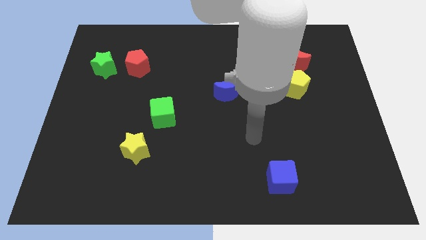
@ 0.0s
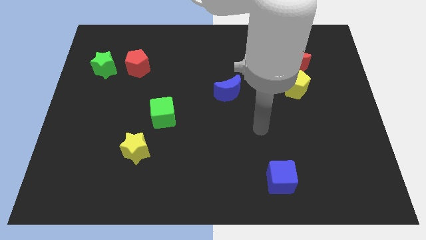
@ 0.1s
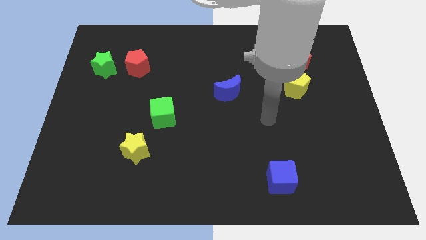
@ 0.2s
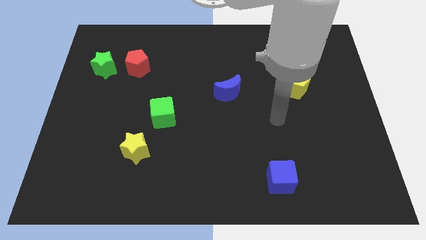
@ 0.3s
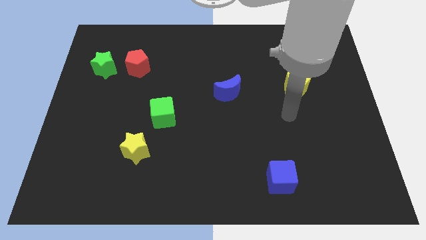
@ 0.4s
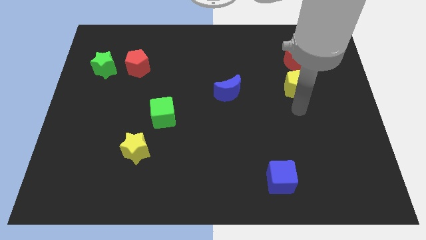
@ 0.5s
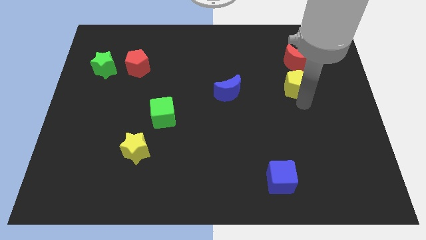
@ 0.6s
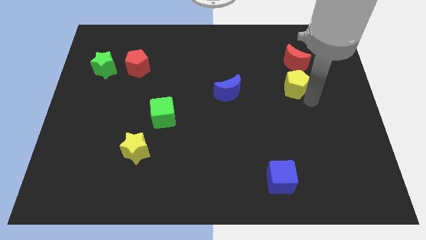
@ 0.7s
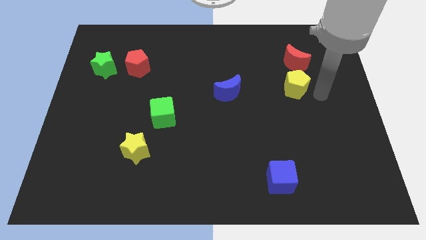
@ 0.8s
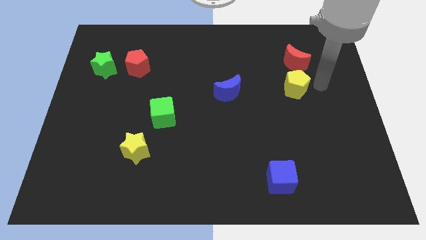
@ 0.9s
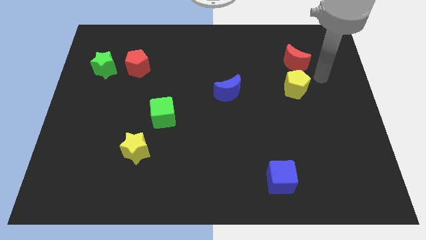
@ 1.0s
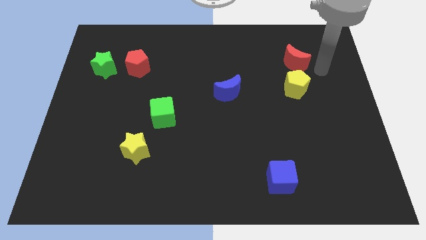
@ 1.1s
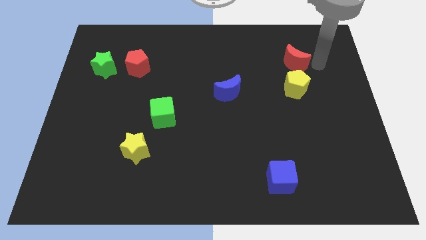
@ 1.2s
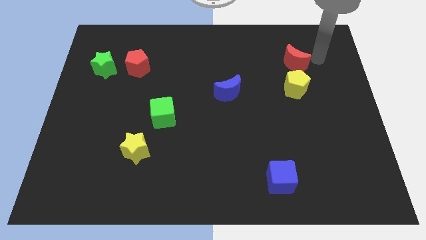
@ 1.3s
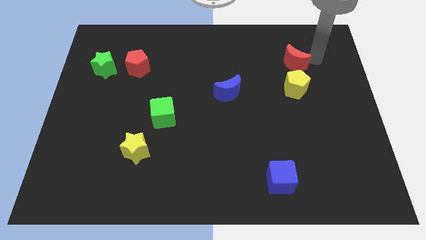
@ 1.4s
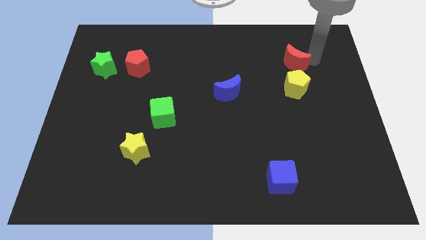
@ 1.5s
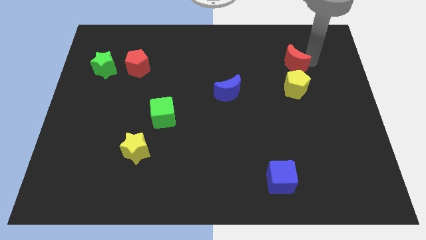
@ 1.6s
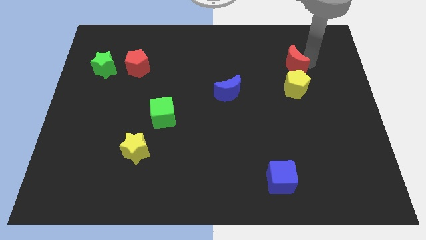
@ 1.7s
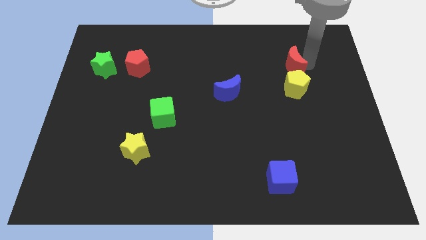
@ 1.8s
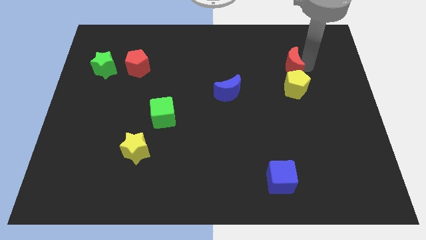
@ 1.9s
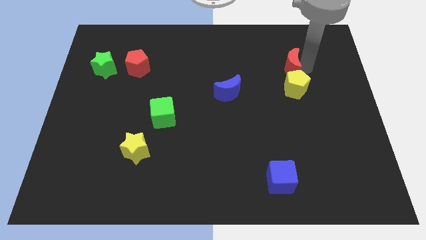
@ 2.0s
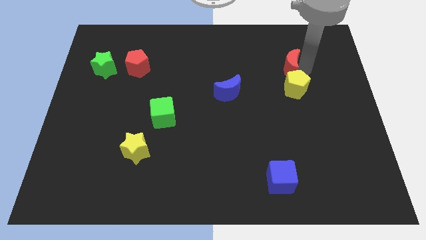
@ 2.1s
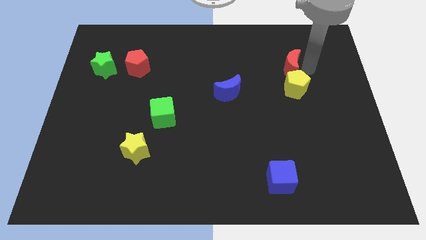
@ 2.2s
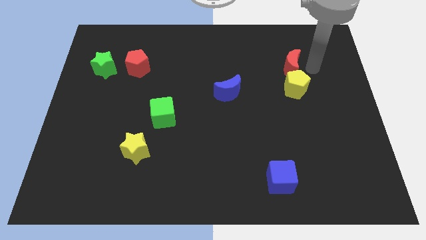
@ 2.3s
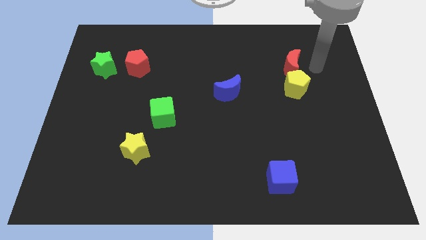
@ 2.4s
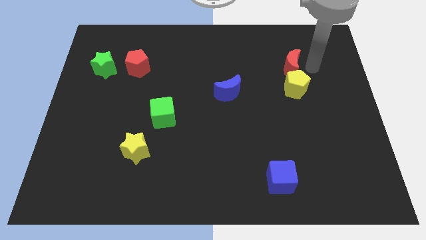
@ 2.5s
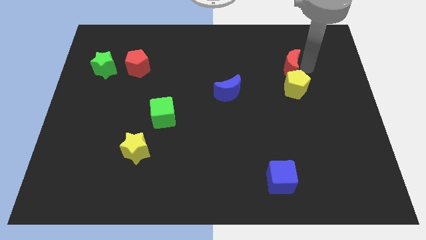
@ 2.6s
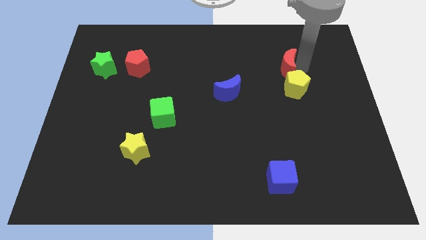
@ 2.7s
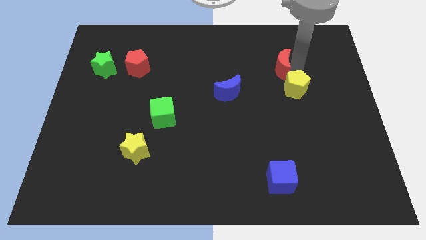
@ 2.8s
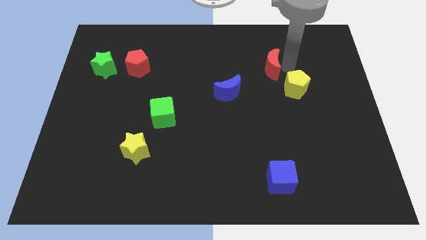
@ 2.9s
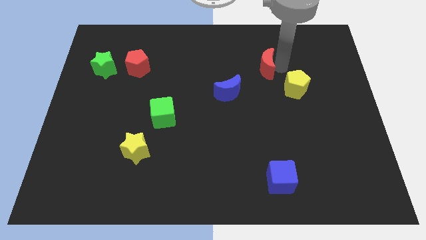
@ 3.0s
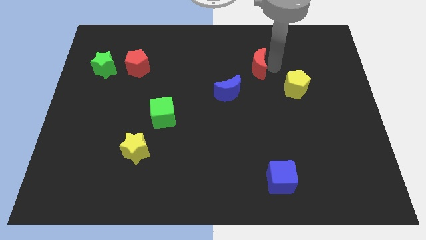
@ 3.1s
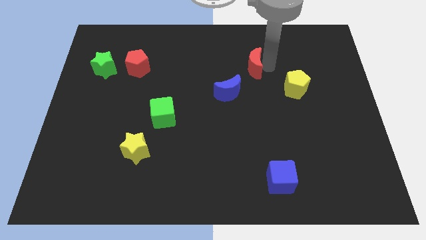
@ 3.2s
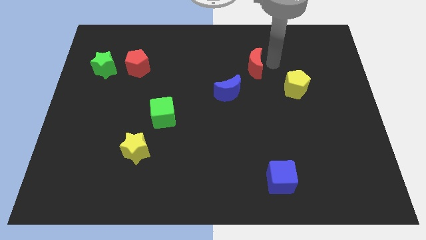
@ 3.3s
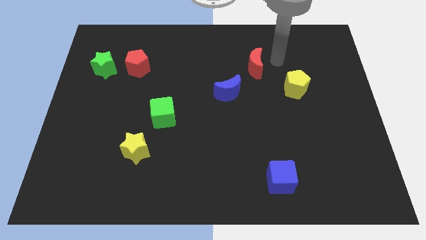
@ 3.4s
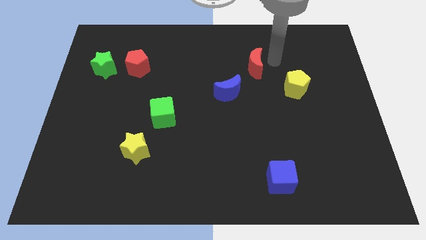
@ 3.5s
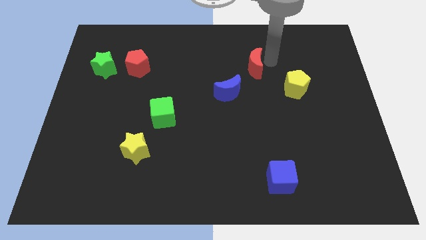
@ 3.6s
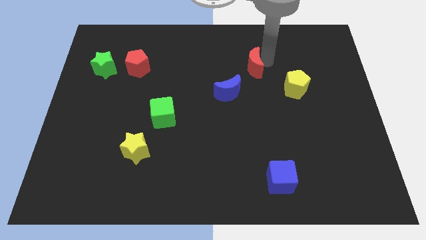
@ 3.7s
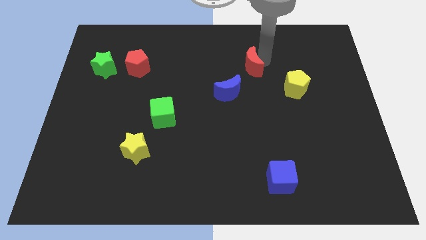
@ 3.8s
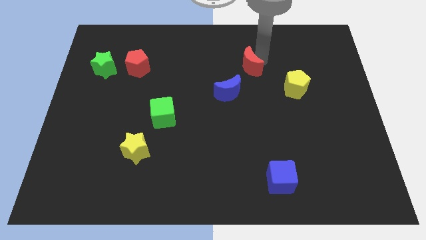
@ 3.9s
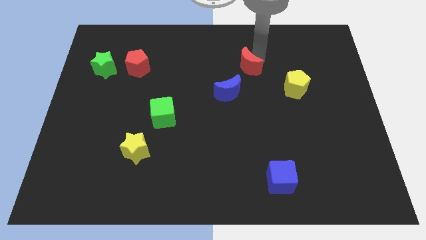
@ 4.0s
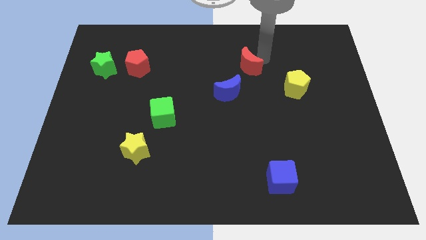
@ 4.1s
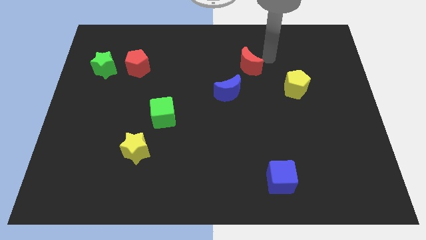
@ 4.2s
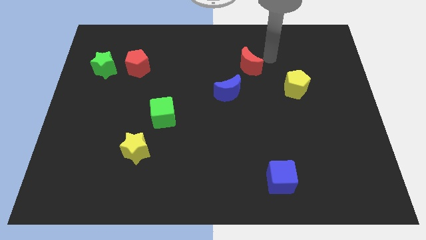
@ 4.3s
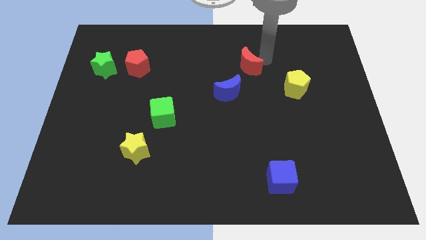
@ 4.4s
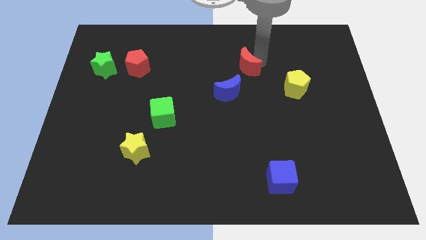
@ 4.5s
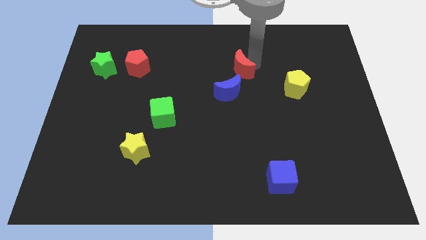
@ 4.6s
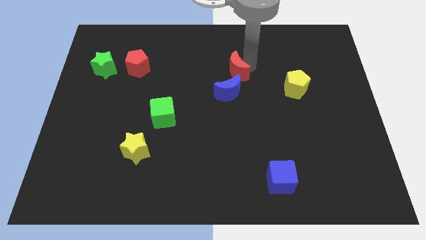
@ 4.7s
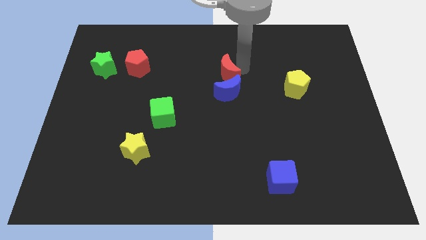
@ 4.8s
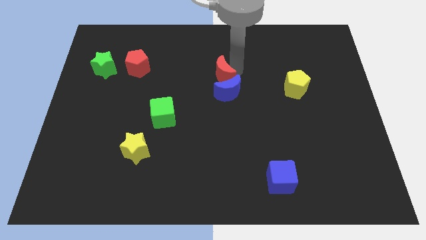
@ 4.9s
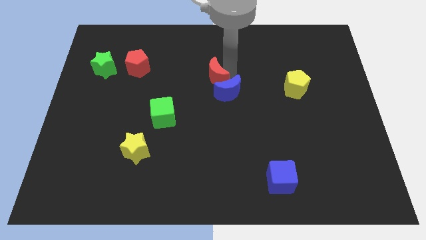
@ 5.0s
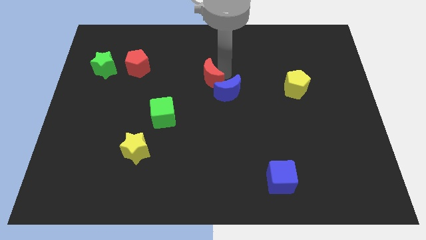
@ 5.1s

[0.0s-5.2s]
push the red moon to the left of the blue moon

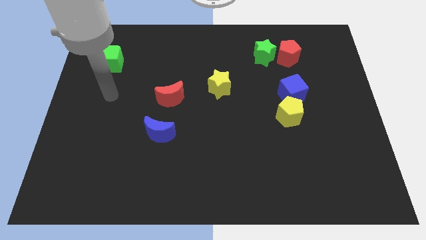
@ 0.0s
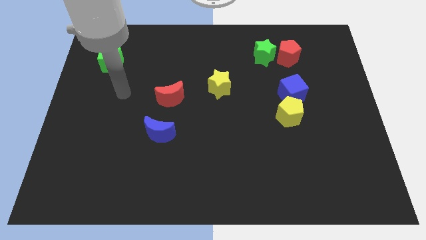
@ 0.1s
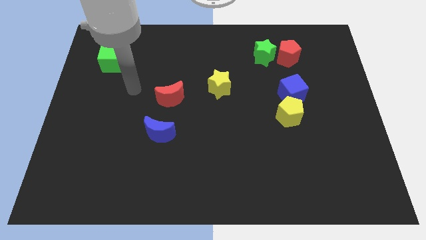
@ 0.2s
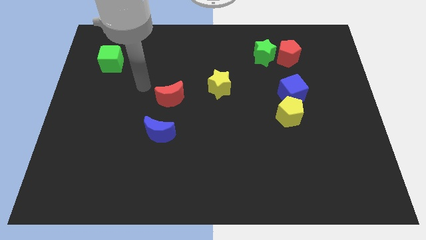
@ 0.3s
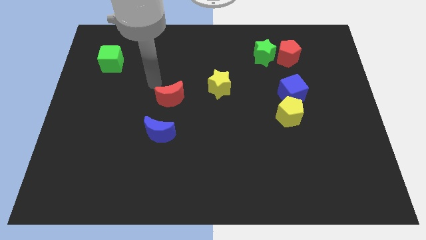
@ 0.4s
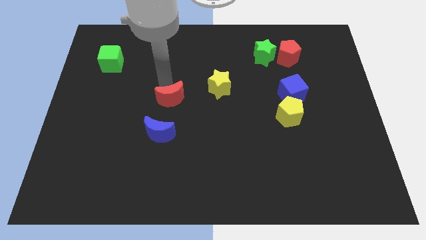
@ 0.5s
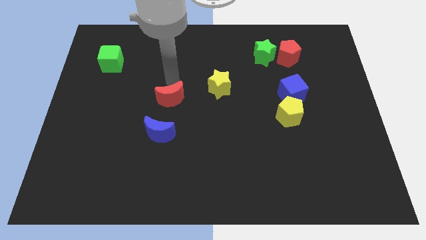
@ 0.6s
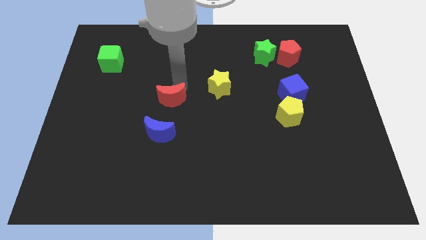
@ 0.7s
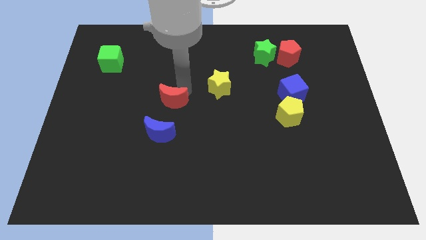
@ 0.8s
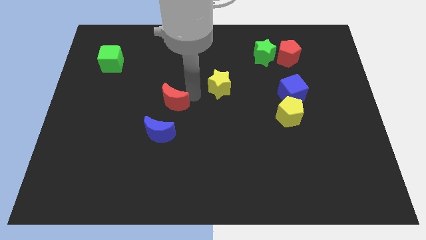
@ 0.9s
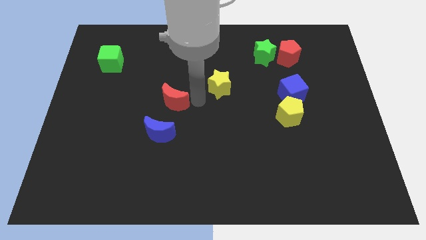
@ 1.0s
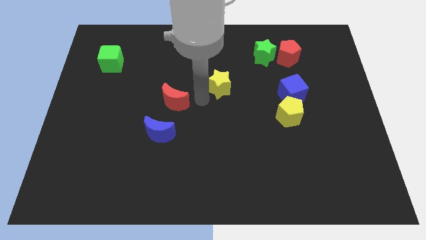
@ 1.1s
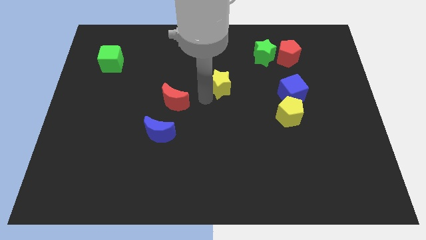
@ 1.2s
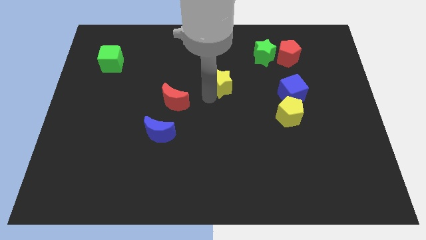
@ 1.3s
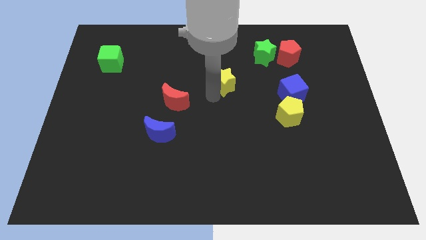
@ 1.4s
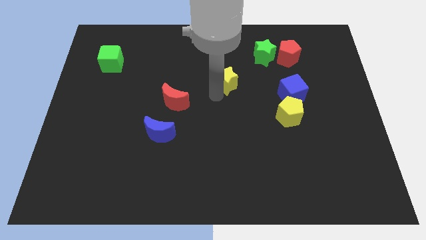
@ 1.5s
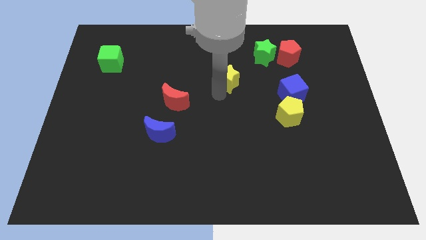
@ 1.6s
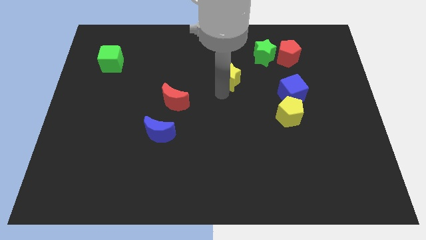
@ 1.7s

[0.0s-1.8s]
slide the yellow star diagonally down and to the left of the green star
